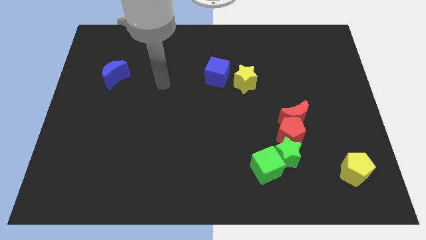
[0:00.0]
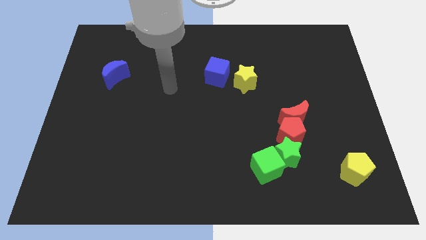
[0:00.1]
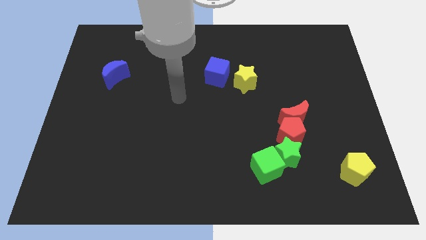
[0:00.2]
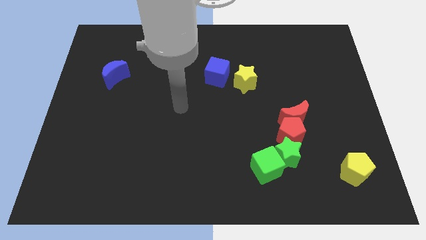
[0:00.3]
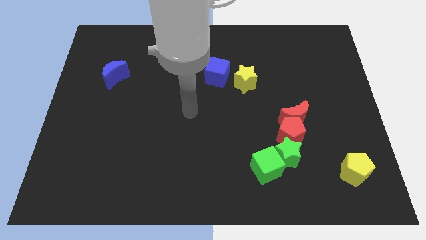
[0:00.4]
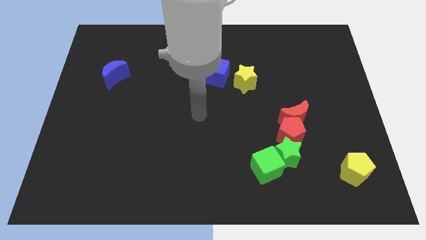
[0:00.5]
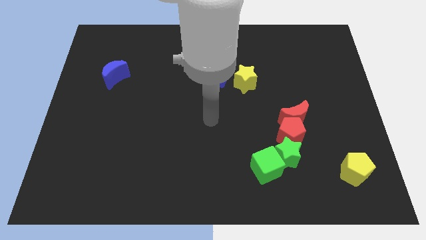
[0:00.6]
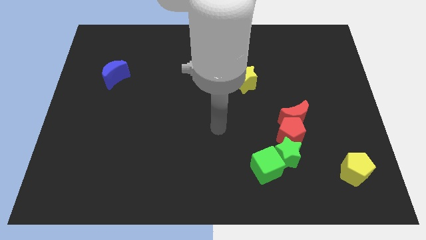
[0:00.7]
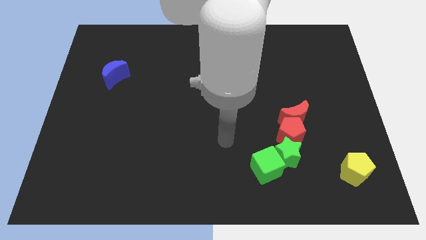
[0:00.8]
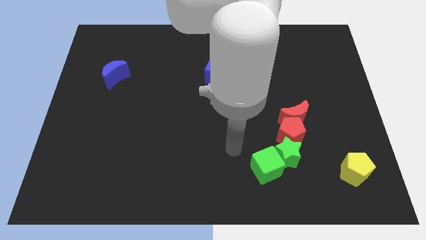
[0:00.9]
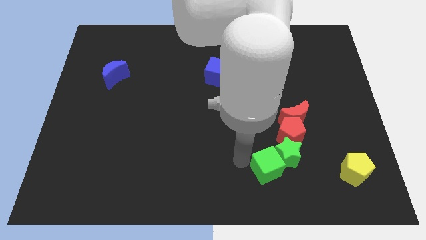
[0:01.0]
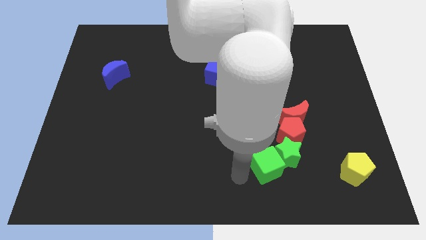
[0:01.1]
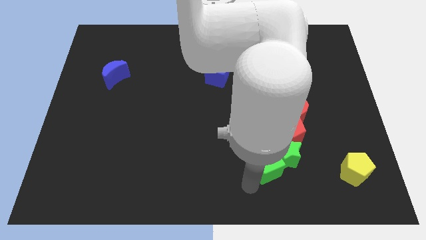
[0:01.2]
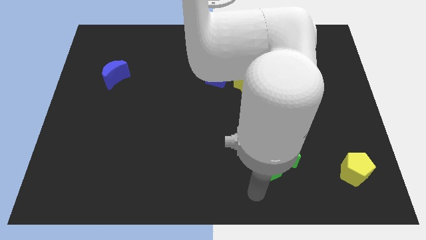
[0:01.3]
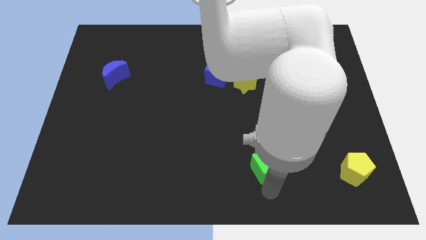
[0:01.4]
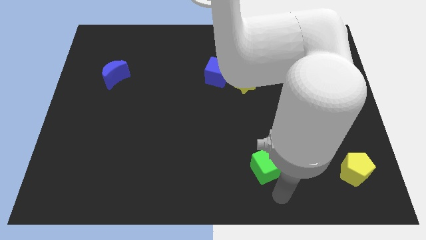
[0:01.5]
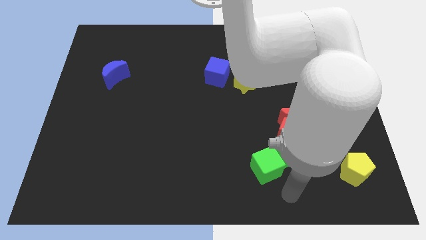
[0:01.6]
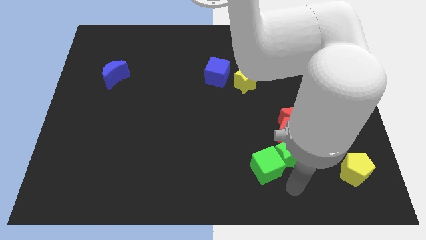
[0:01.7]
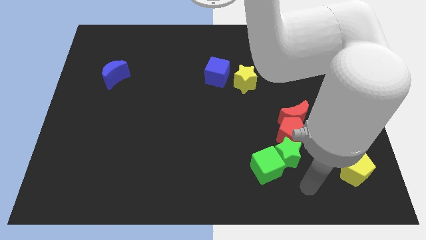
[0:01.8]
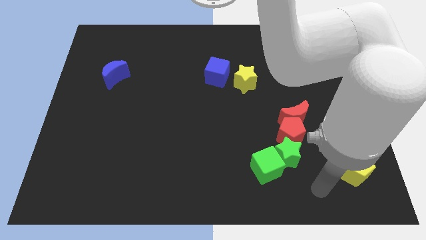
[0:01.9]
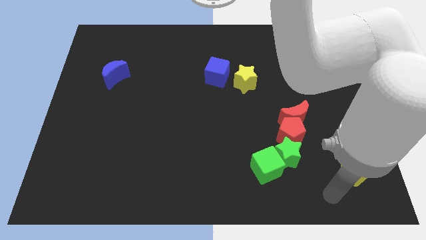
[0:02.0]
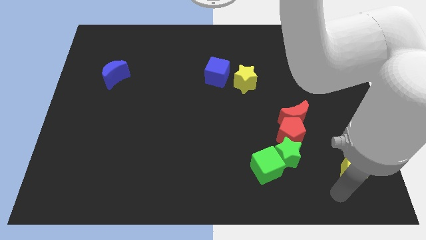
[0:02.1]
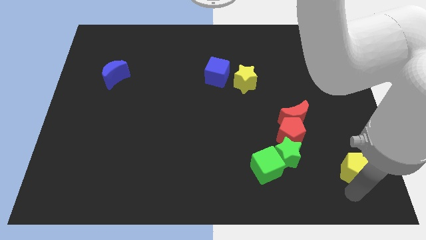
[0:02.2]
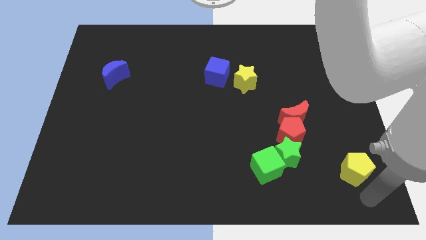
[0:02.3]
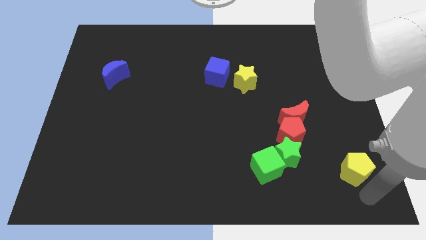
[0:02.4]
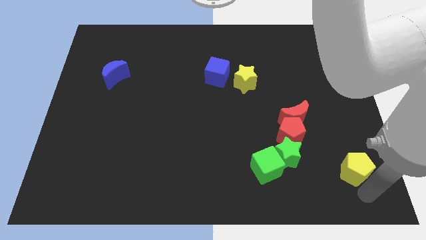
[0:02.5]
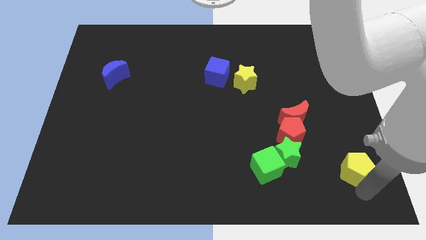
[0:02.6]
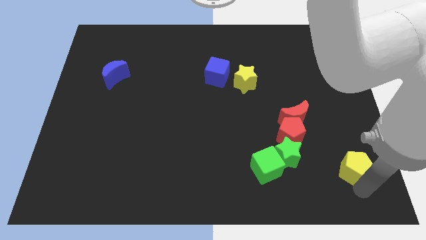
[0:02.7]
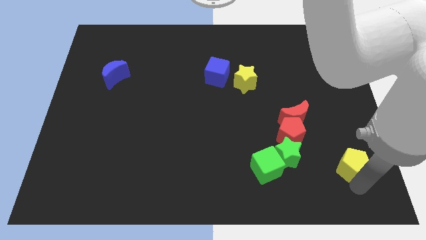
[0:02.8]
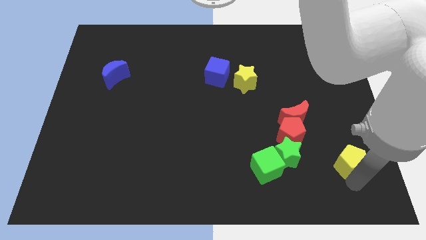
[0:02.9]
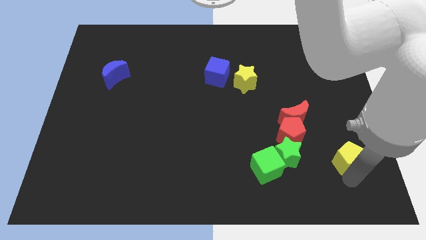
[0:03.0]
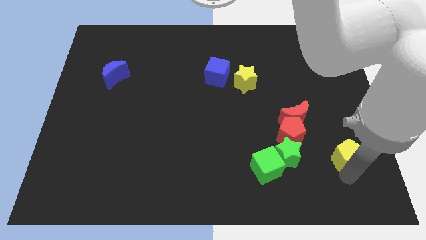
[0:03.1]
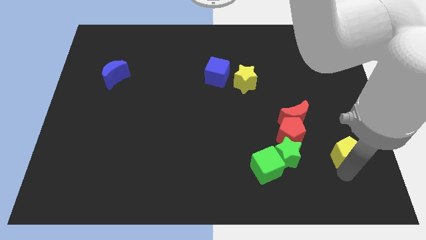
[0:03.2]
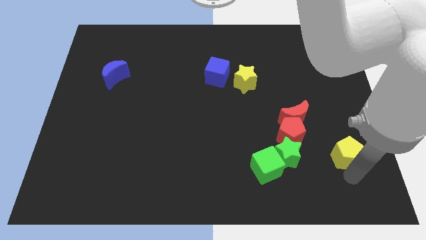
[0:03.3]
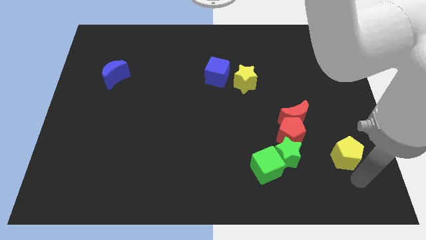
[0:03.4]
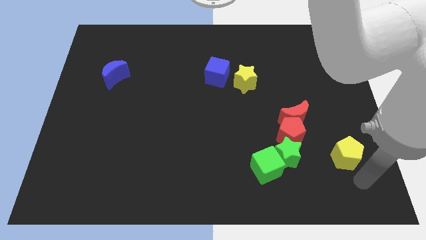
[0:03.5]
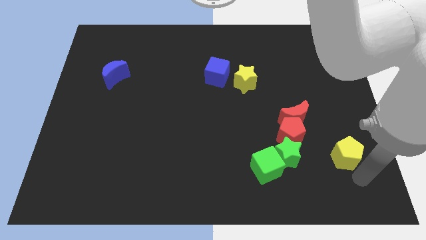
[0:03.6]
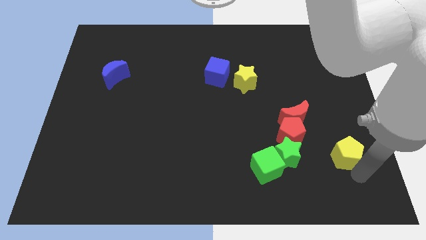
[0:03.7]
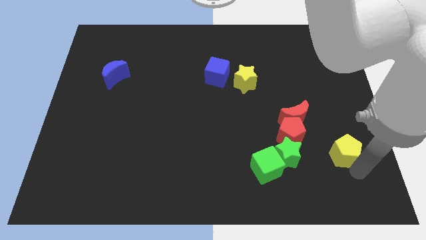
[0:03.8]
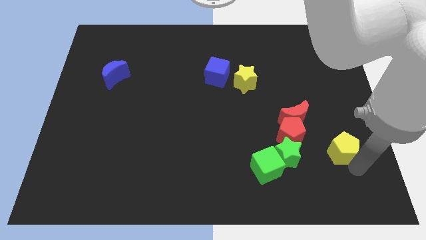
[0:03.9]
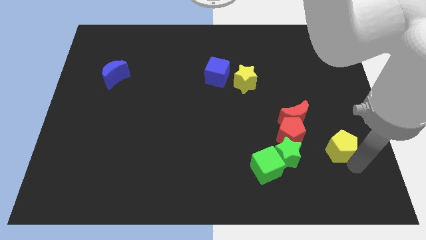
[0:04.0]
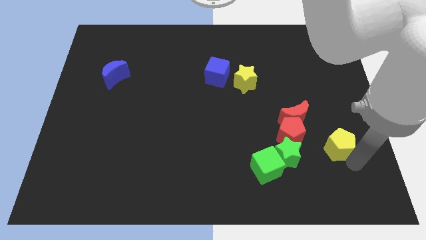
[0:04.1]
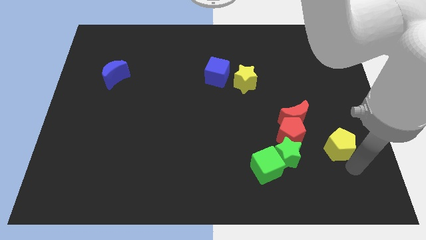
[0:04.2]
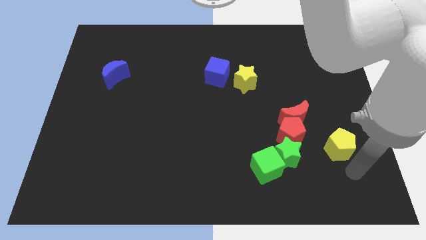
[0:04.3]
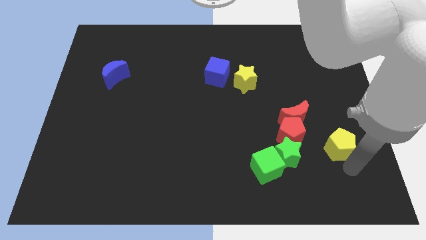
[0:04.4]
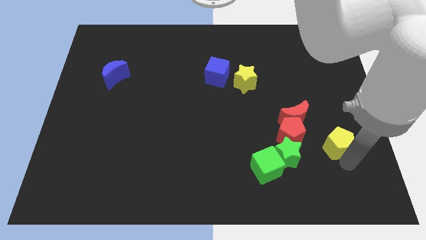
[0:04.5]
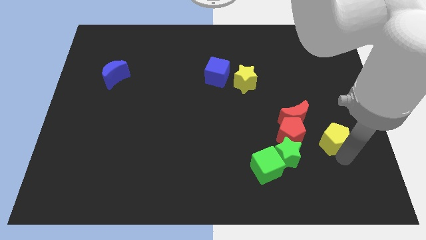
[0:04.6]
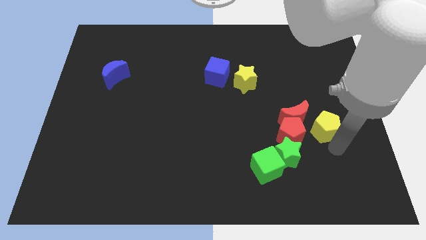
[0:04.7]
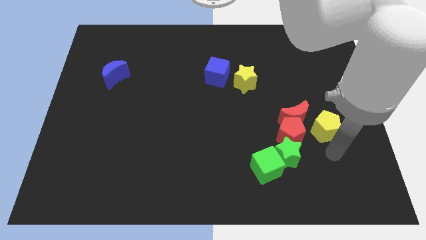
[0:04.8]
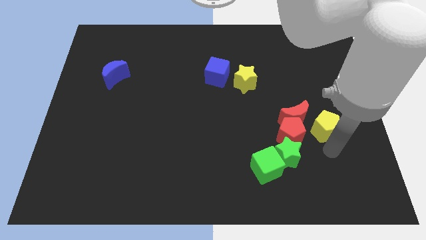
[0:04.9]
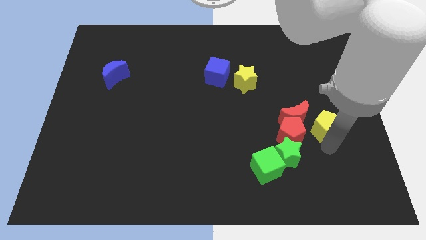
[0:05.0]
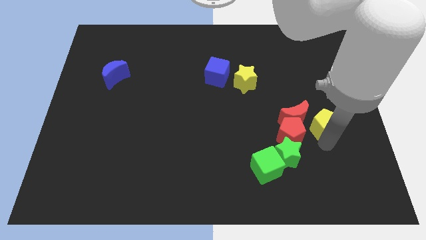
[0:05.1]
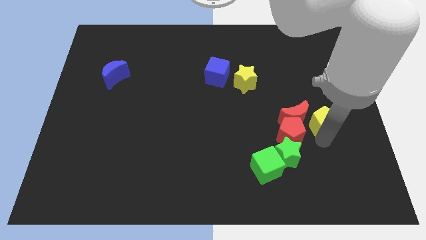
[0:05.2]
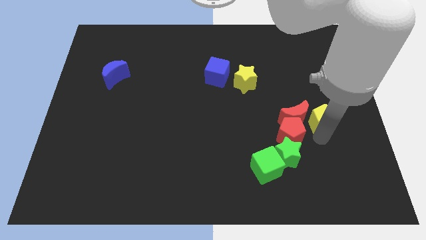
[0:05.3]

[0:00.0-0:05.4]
put the yellow pentagon diagonally up and to the right of the red moon

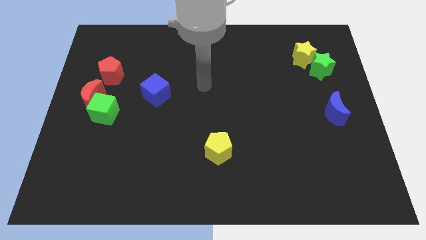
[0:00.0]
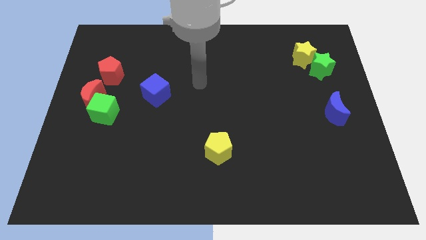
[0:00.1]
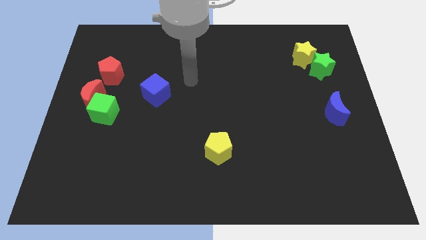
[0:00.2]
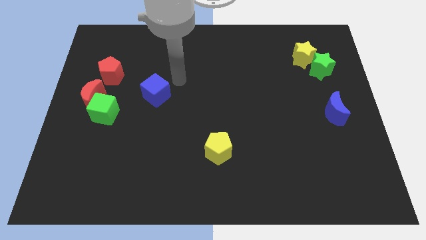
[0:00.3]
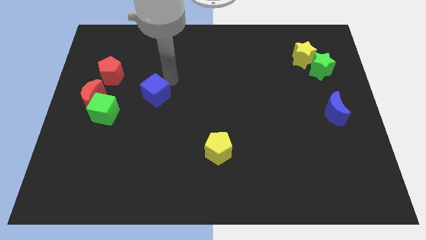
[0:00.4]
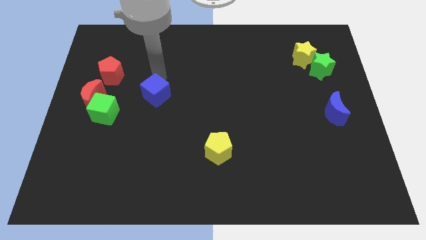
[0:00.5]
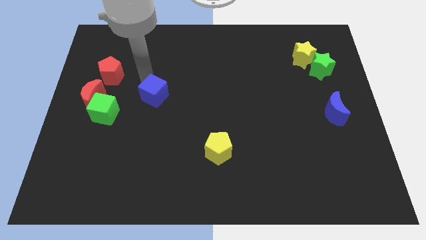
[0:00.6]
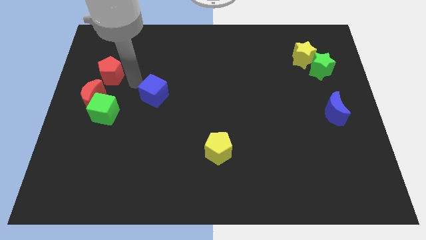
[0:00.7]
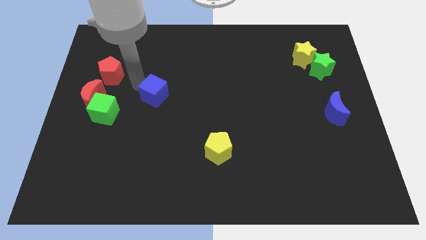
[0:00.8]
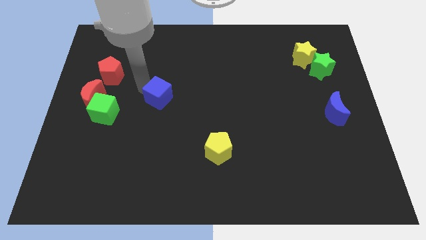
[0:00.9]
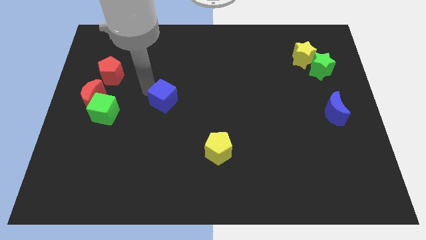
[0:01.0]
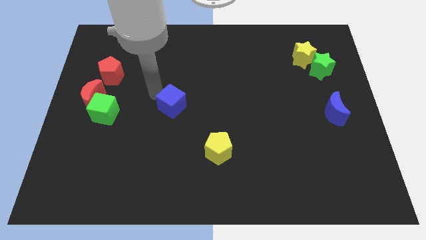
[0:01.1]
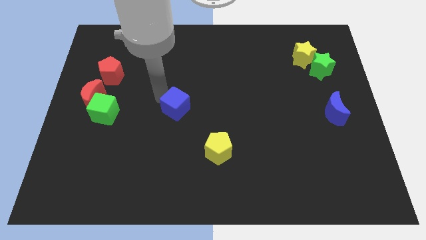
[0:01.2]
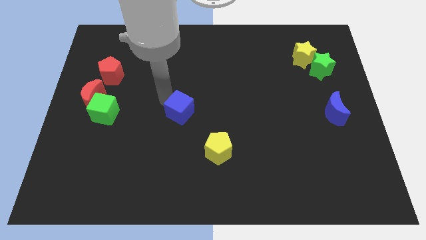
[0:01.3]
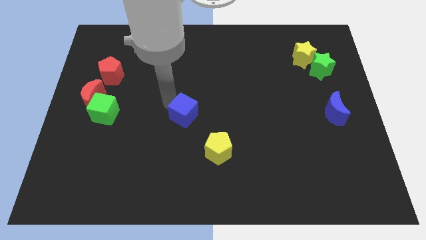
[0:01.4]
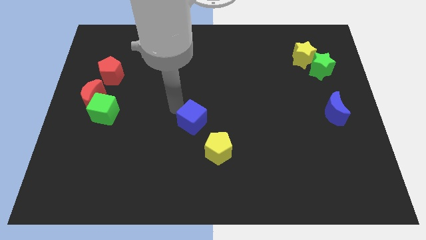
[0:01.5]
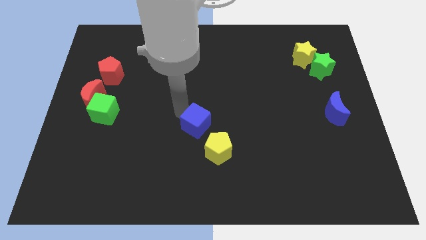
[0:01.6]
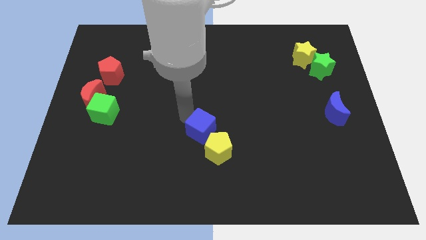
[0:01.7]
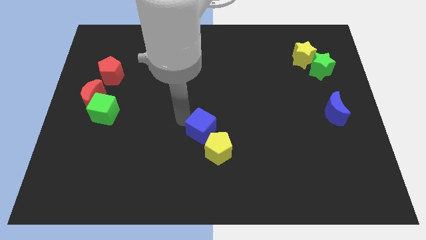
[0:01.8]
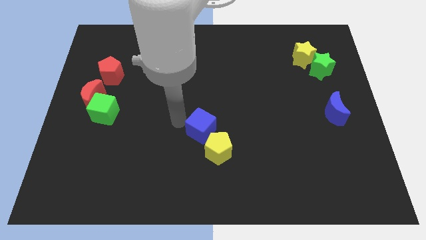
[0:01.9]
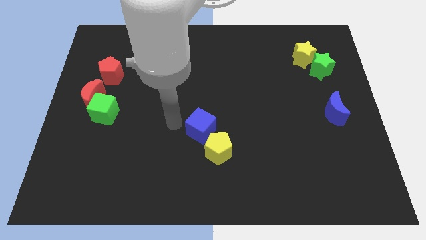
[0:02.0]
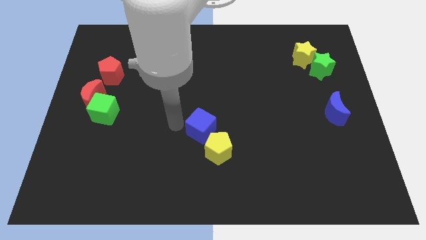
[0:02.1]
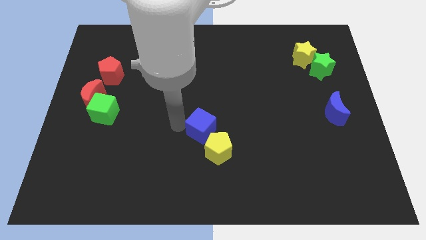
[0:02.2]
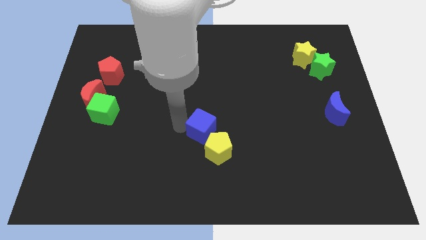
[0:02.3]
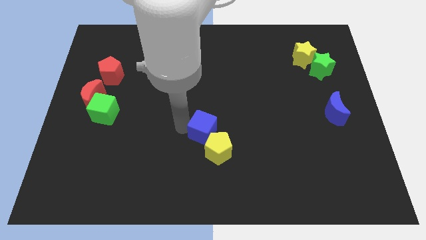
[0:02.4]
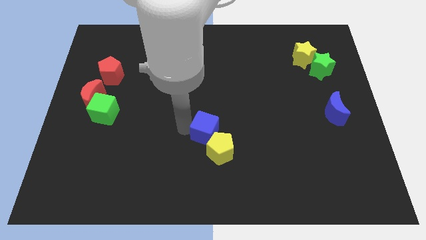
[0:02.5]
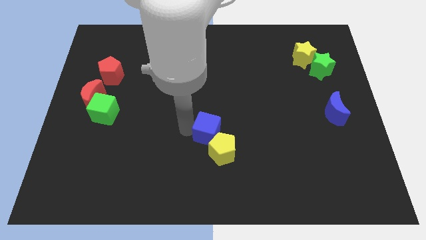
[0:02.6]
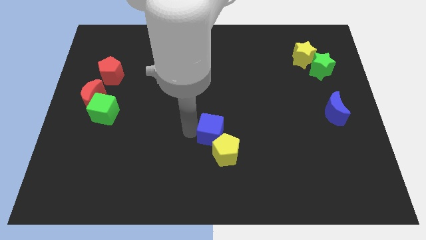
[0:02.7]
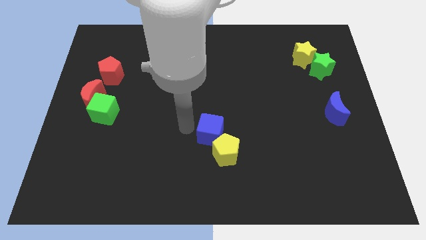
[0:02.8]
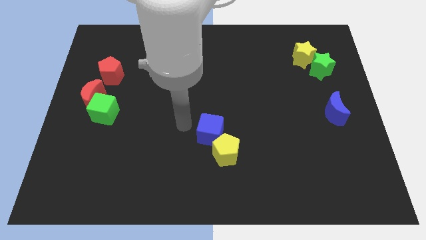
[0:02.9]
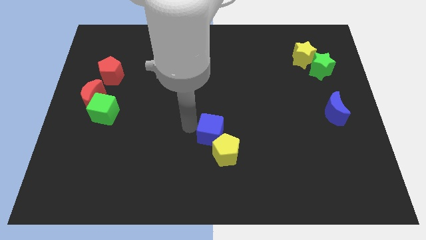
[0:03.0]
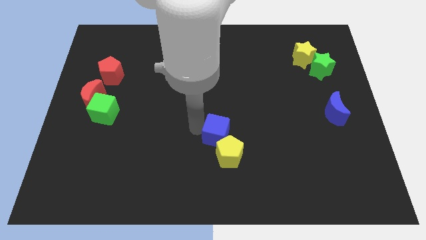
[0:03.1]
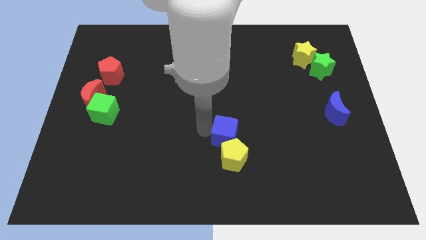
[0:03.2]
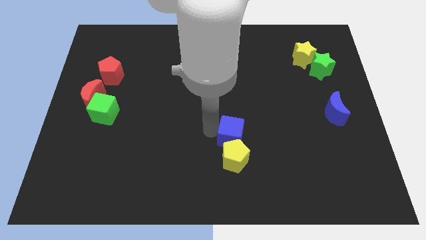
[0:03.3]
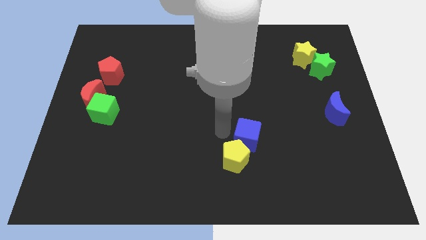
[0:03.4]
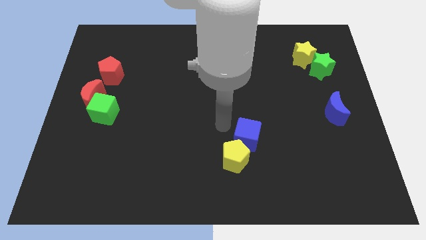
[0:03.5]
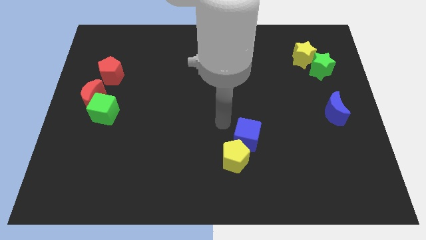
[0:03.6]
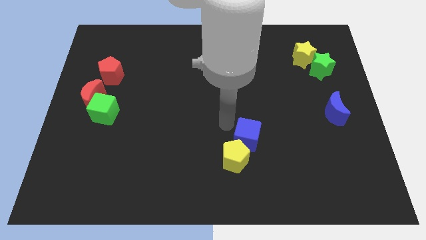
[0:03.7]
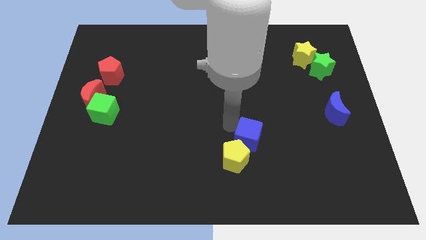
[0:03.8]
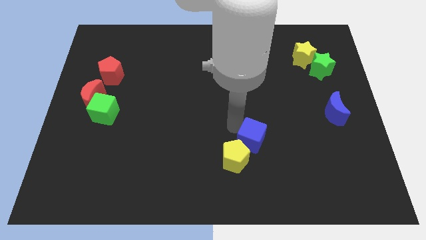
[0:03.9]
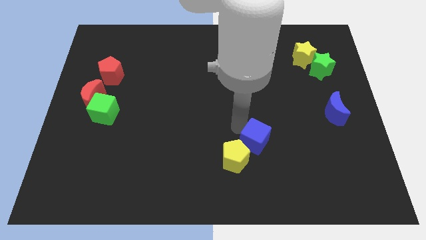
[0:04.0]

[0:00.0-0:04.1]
slide the blue cube to the right side of the yellow pentagon
